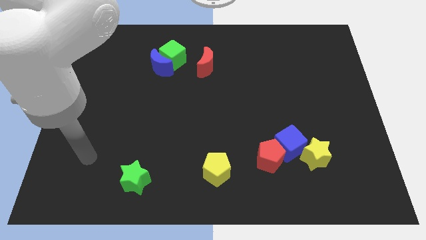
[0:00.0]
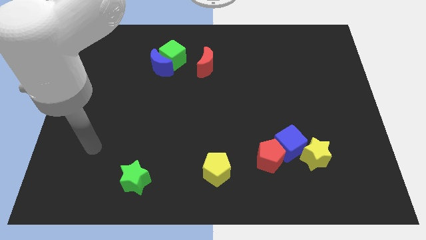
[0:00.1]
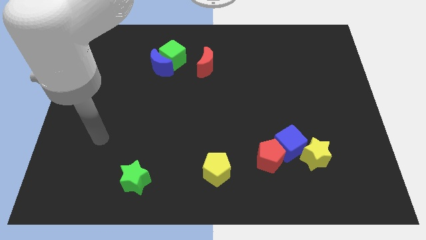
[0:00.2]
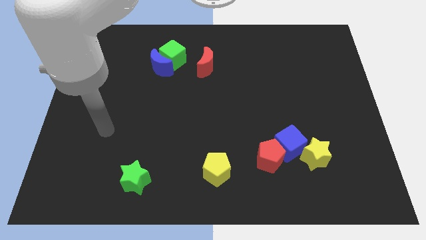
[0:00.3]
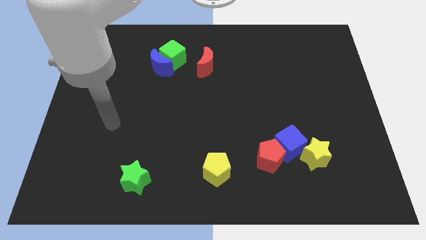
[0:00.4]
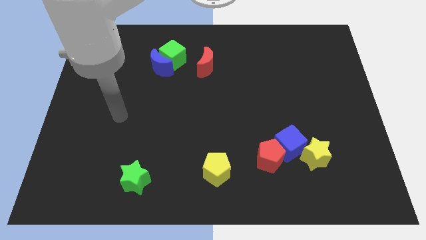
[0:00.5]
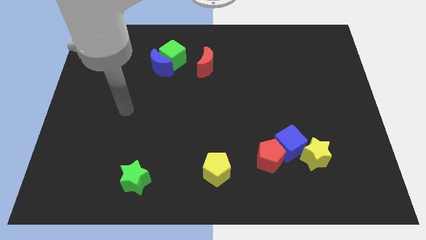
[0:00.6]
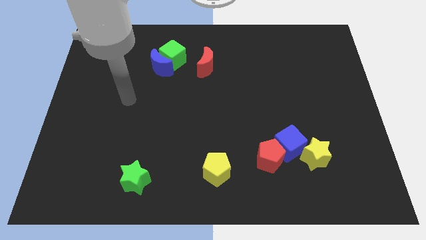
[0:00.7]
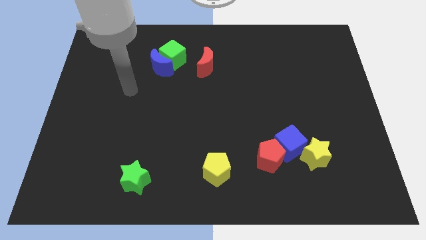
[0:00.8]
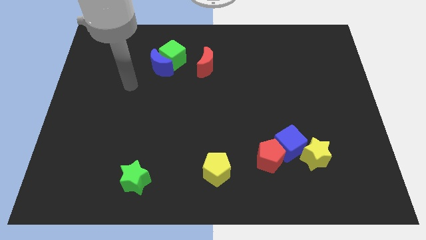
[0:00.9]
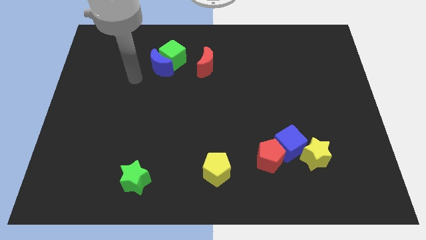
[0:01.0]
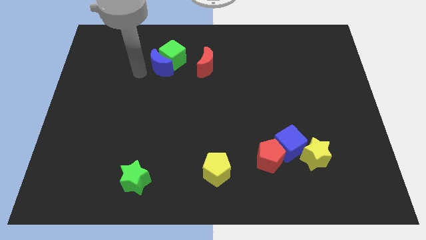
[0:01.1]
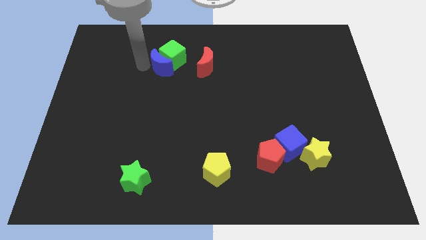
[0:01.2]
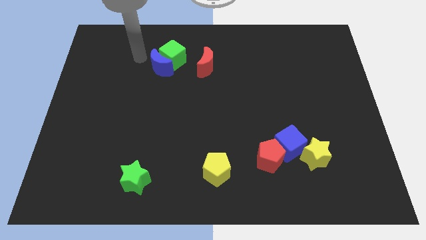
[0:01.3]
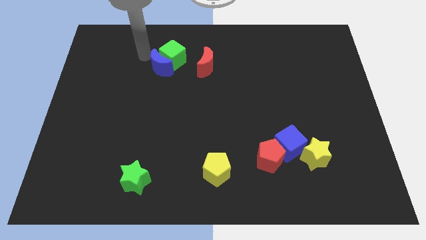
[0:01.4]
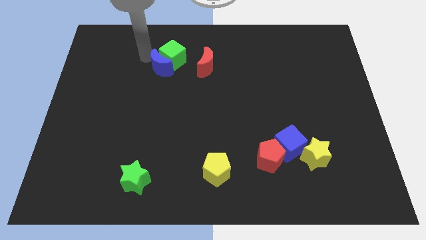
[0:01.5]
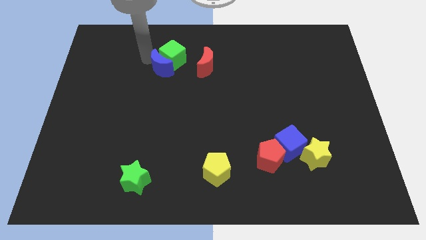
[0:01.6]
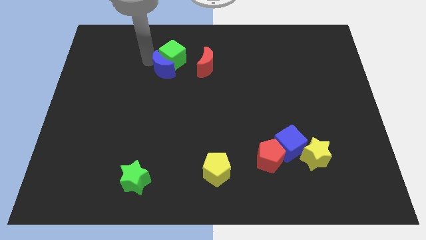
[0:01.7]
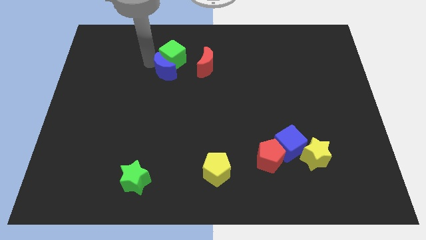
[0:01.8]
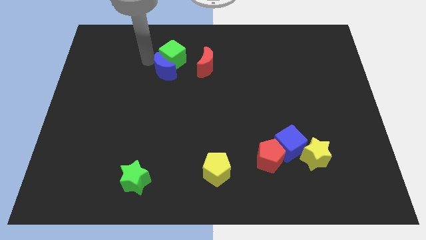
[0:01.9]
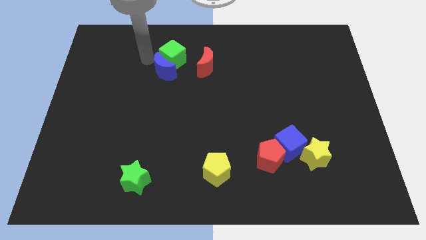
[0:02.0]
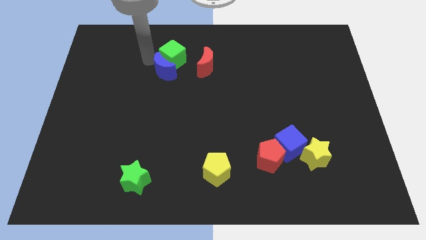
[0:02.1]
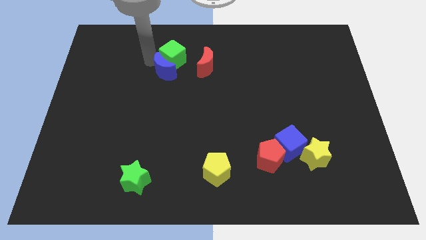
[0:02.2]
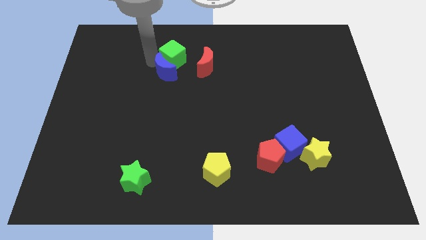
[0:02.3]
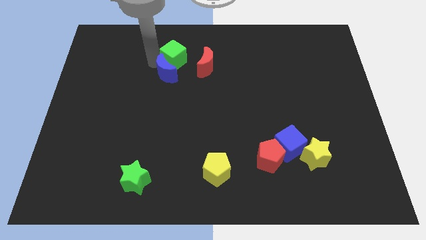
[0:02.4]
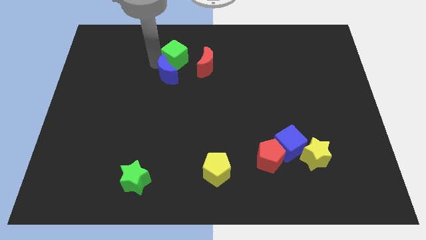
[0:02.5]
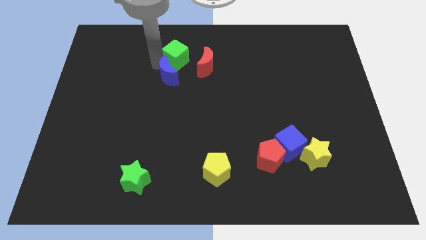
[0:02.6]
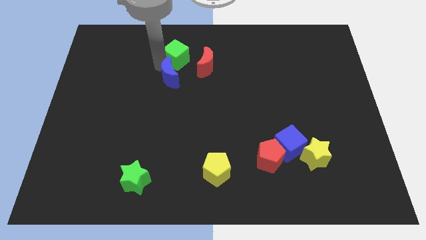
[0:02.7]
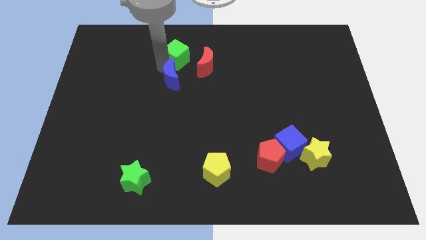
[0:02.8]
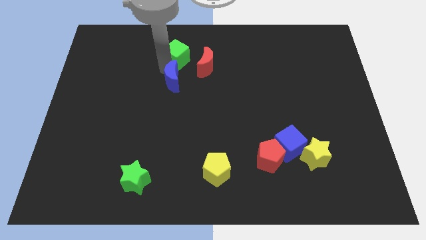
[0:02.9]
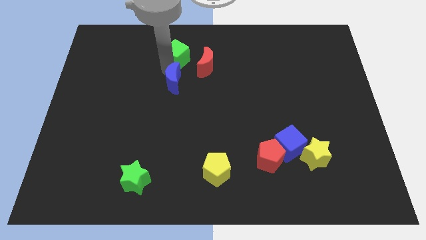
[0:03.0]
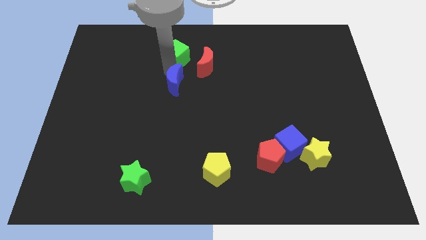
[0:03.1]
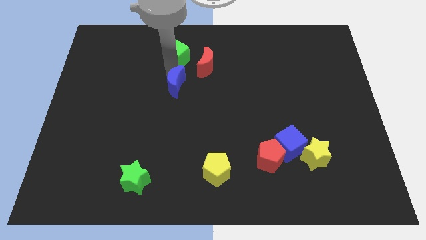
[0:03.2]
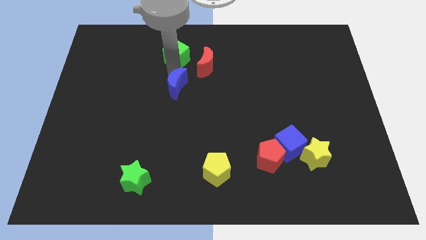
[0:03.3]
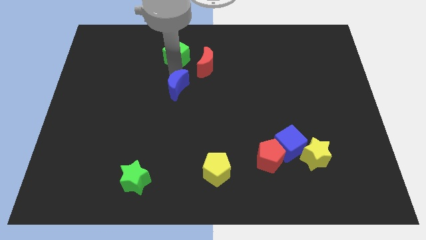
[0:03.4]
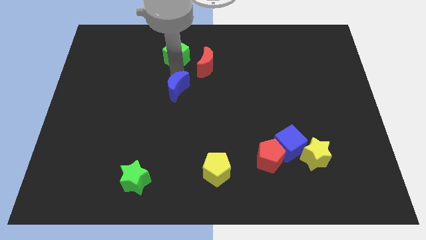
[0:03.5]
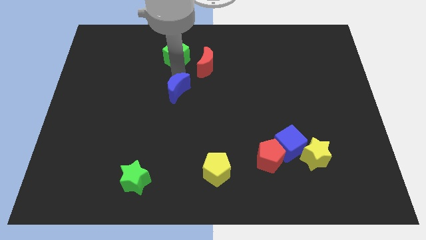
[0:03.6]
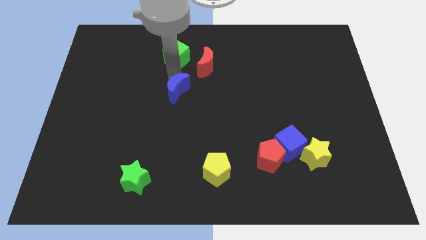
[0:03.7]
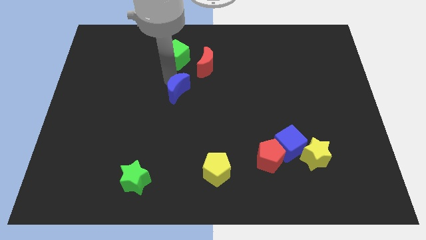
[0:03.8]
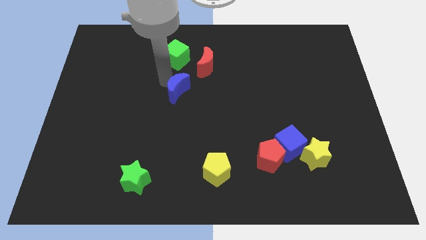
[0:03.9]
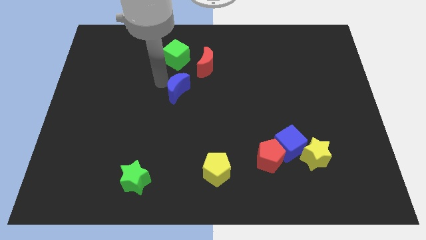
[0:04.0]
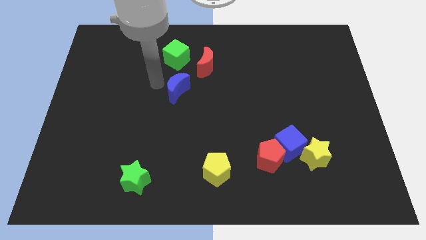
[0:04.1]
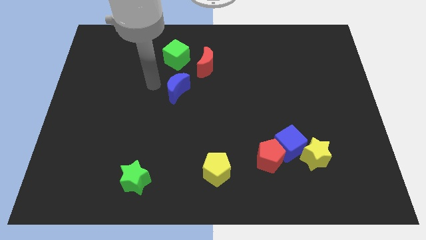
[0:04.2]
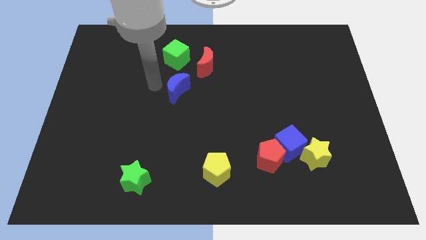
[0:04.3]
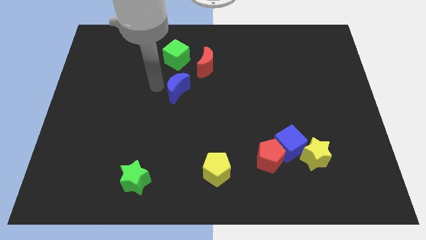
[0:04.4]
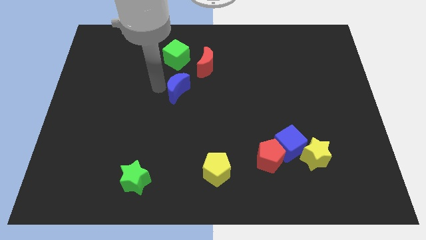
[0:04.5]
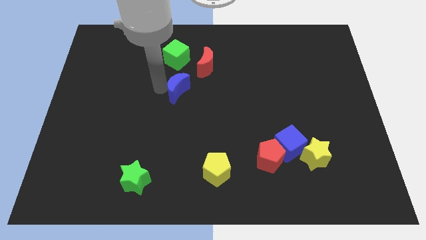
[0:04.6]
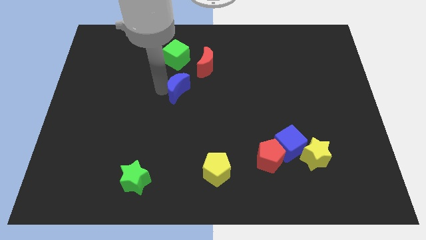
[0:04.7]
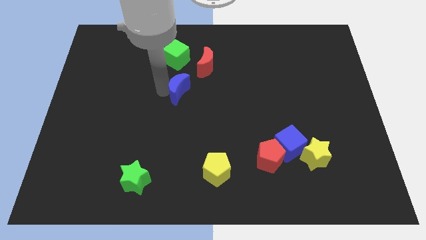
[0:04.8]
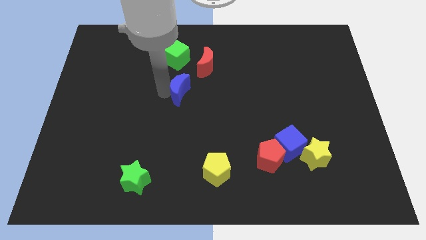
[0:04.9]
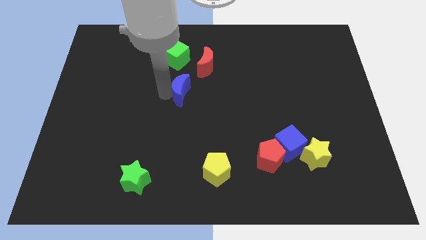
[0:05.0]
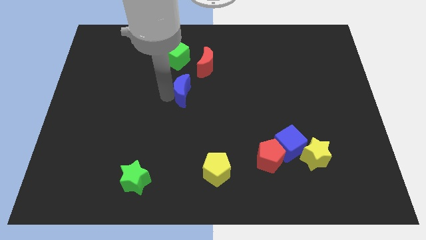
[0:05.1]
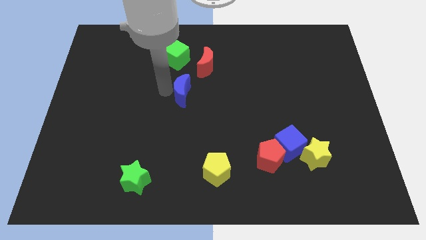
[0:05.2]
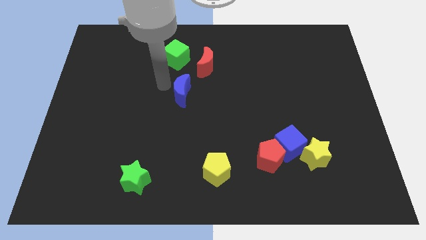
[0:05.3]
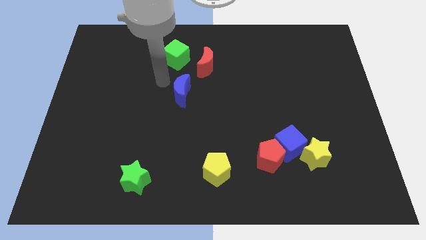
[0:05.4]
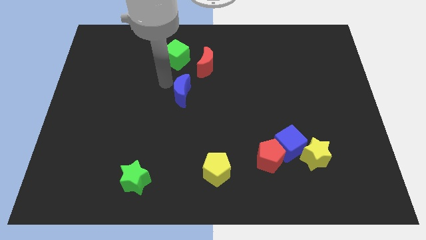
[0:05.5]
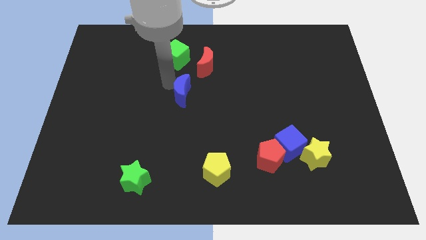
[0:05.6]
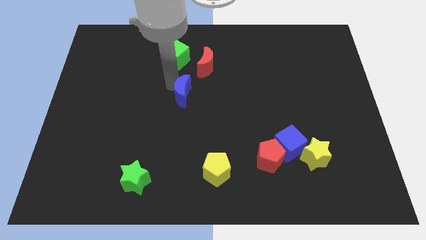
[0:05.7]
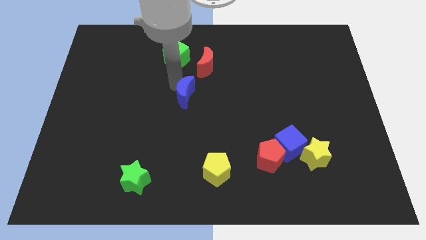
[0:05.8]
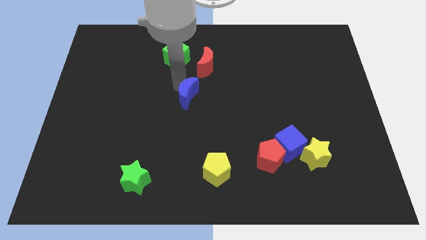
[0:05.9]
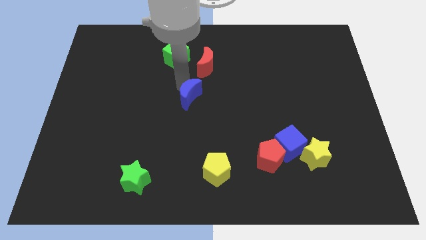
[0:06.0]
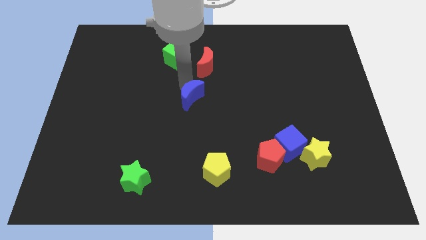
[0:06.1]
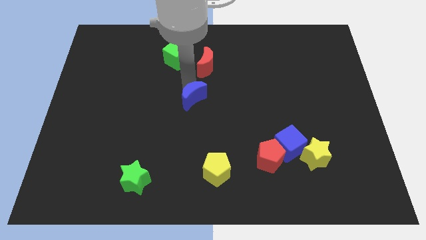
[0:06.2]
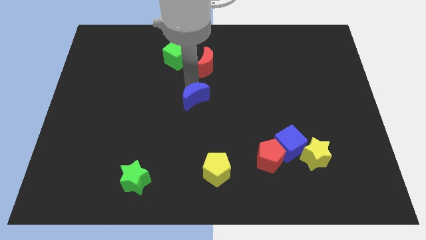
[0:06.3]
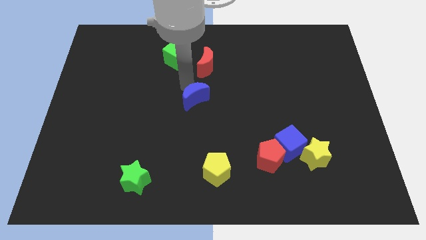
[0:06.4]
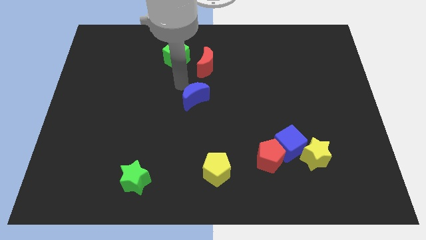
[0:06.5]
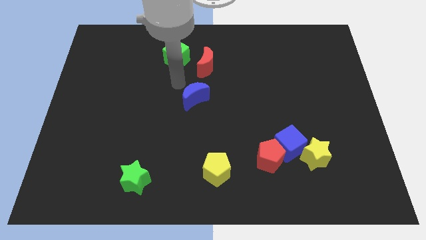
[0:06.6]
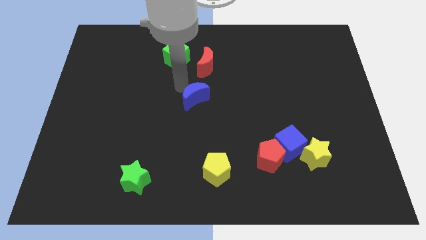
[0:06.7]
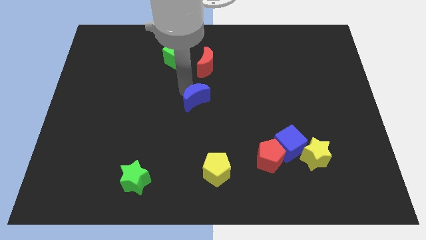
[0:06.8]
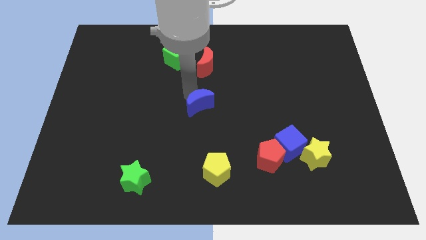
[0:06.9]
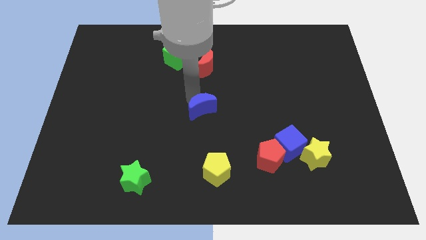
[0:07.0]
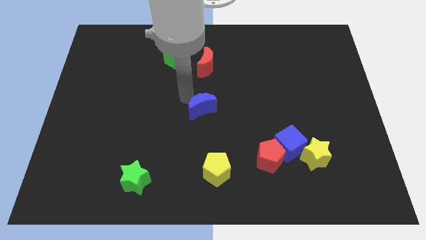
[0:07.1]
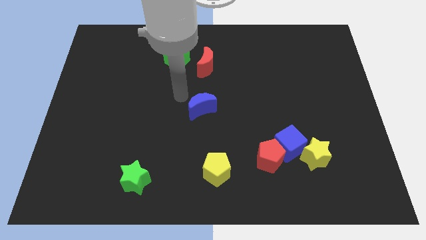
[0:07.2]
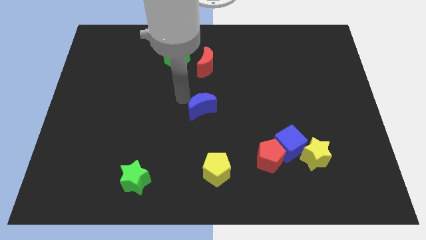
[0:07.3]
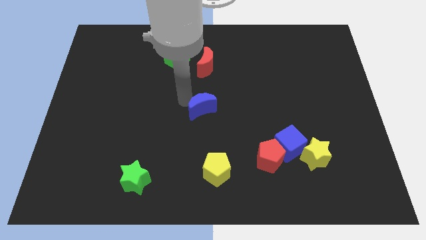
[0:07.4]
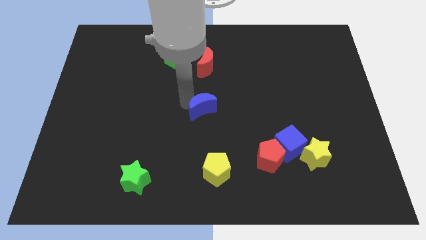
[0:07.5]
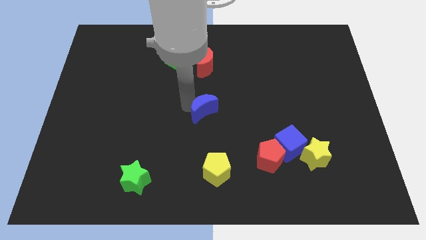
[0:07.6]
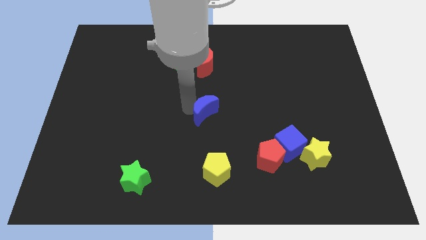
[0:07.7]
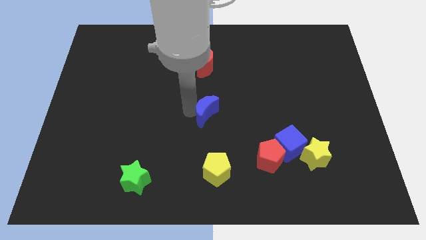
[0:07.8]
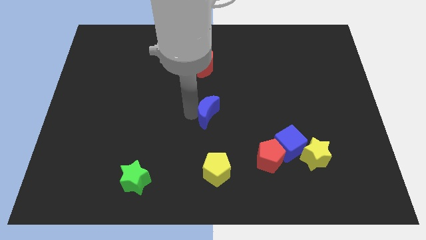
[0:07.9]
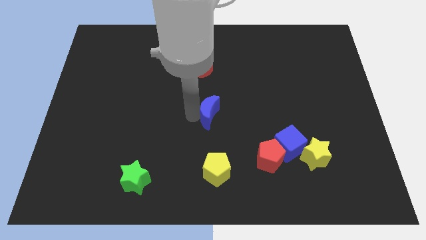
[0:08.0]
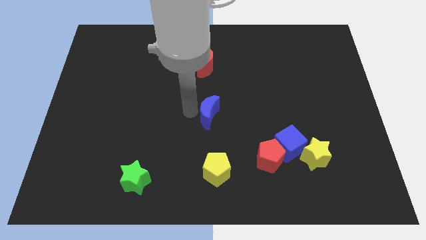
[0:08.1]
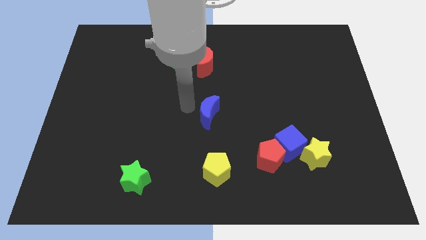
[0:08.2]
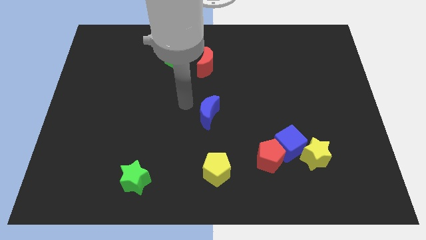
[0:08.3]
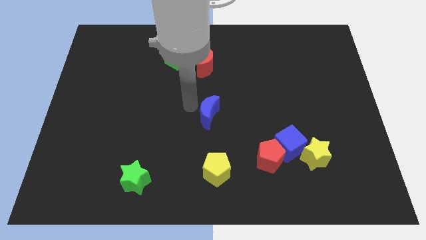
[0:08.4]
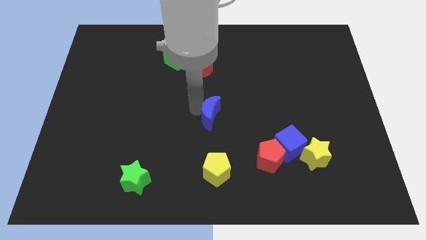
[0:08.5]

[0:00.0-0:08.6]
push the blue moon down and then to the right
